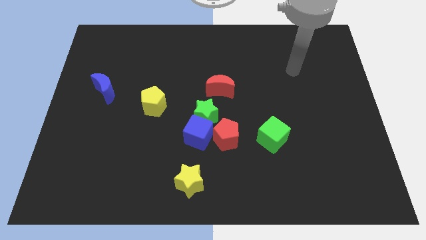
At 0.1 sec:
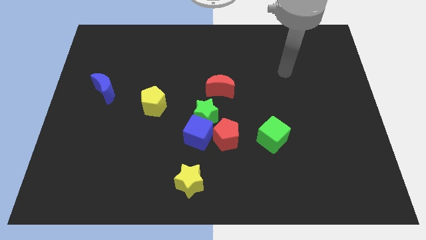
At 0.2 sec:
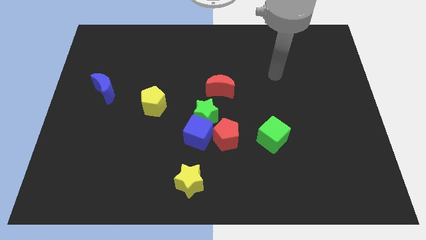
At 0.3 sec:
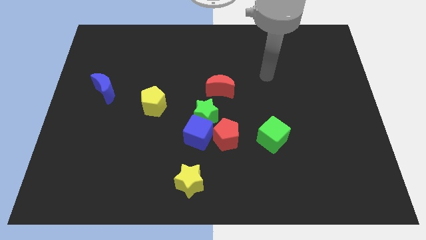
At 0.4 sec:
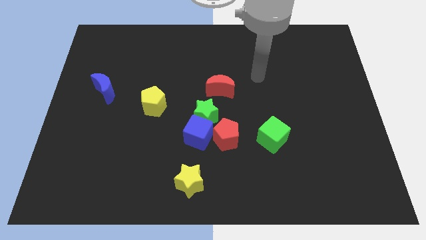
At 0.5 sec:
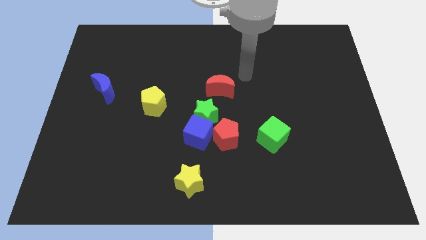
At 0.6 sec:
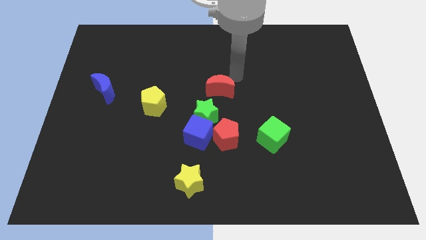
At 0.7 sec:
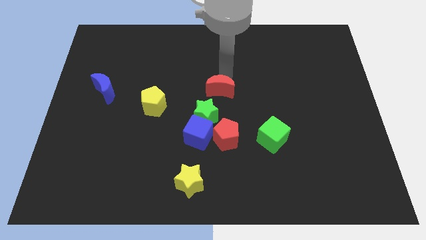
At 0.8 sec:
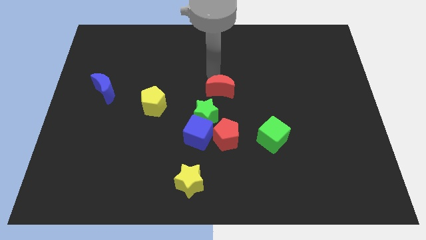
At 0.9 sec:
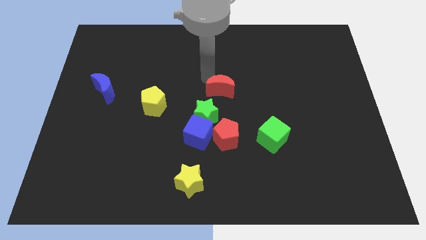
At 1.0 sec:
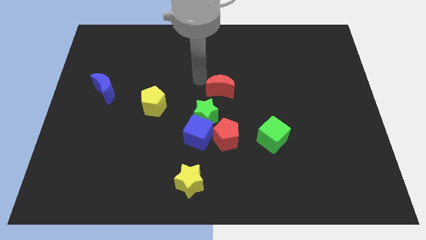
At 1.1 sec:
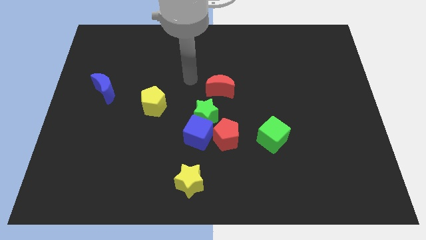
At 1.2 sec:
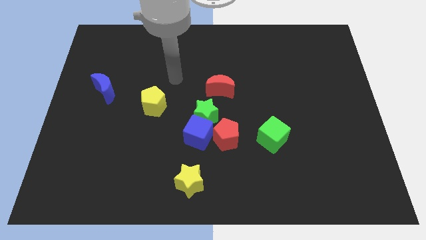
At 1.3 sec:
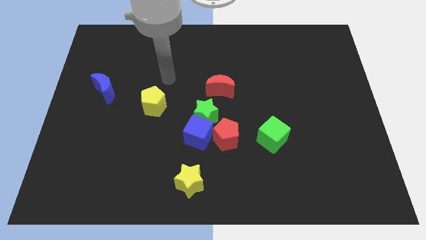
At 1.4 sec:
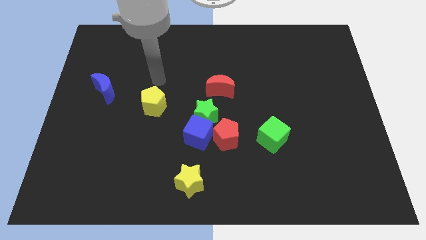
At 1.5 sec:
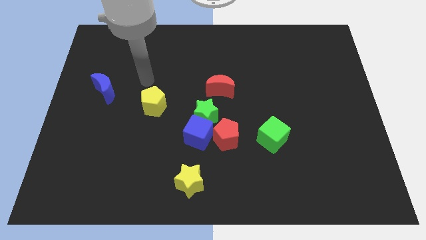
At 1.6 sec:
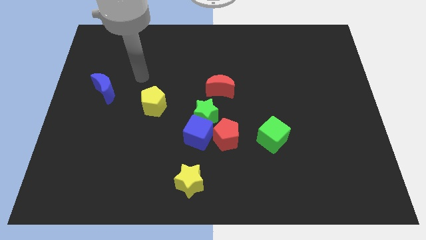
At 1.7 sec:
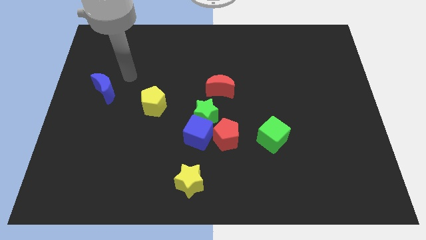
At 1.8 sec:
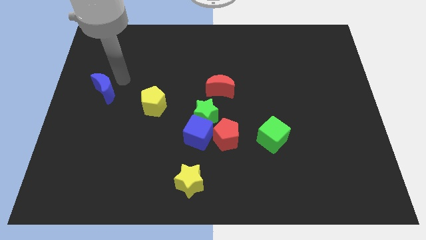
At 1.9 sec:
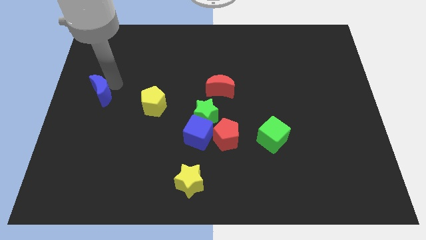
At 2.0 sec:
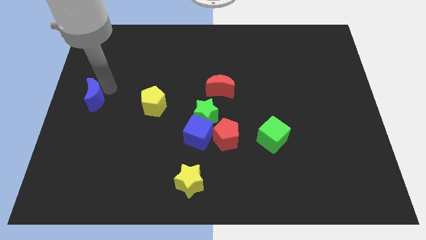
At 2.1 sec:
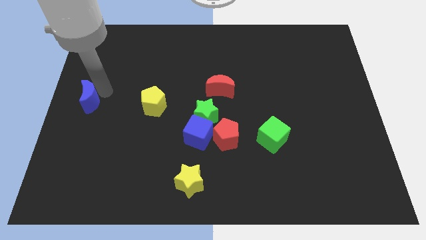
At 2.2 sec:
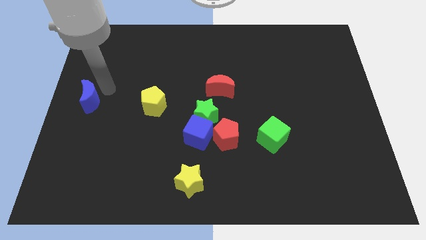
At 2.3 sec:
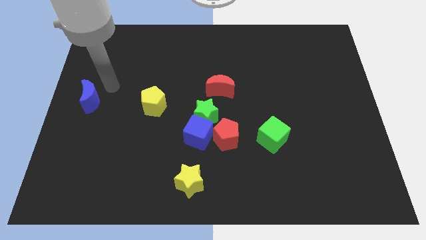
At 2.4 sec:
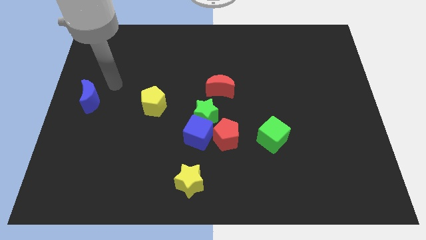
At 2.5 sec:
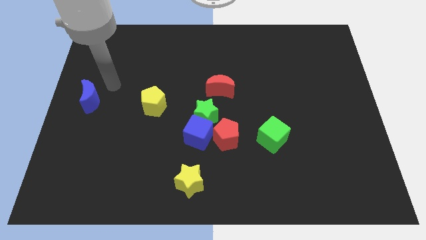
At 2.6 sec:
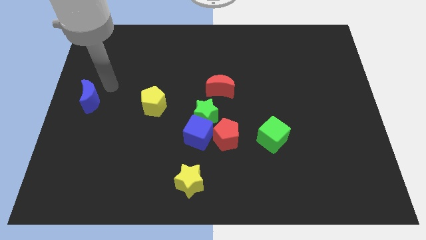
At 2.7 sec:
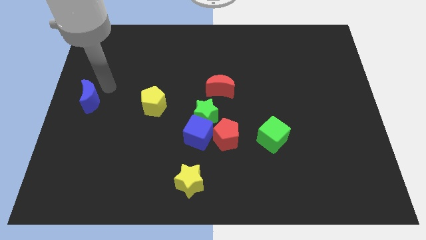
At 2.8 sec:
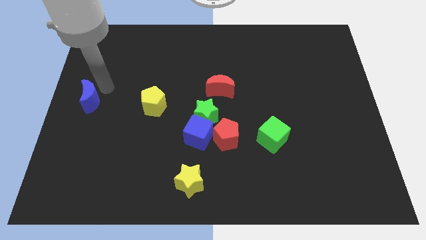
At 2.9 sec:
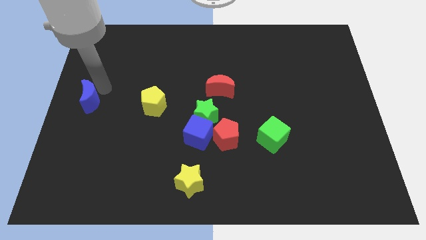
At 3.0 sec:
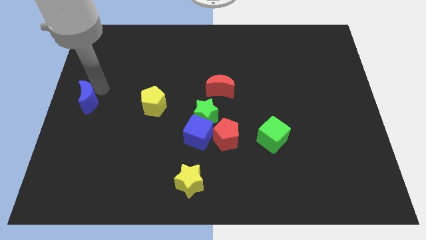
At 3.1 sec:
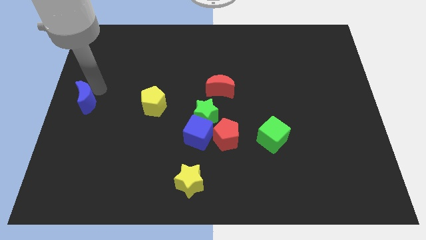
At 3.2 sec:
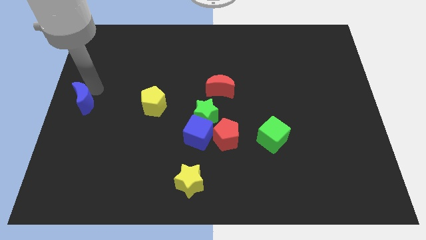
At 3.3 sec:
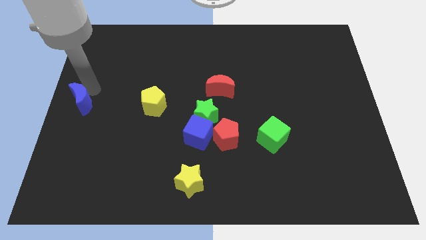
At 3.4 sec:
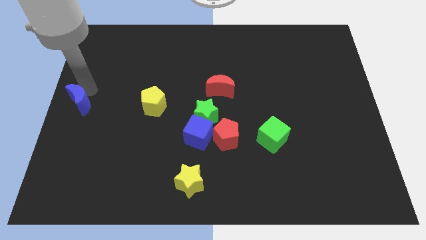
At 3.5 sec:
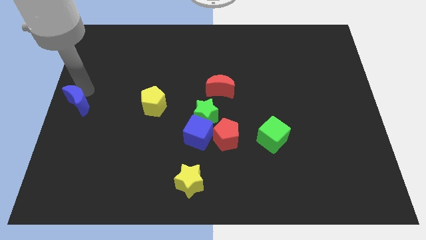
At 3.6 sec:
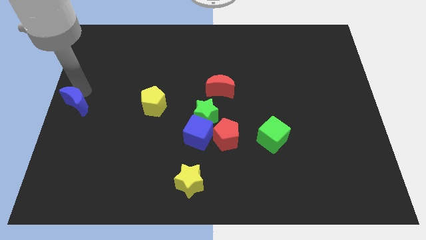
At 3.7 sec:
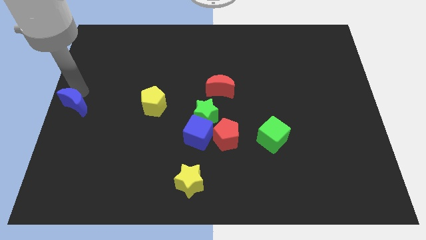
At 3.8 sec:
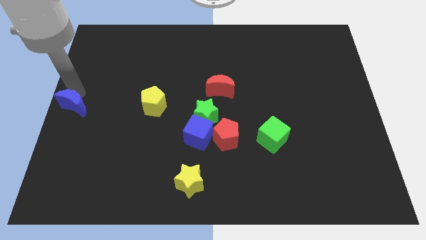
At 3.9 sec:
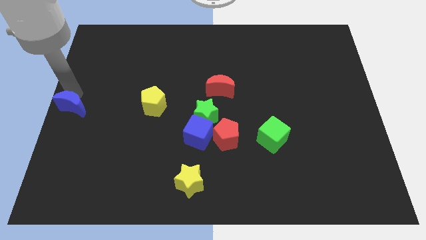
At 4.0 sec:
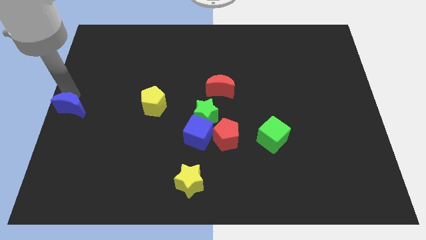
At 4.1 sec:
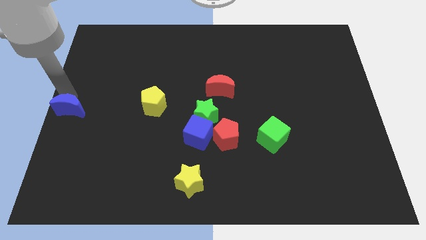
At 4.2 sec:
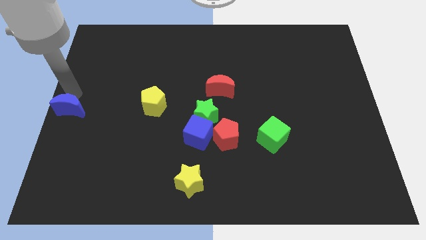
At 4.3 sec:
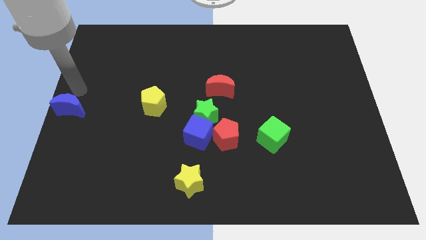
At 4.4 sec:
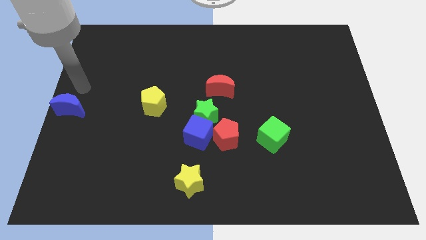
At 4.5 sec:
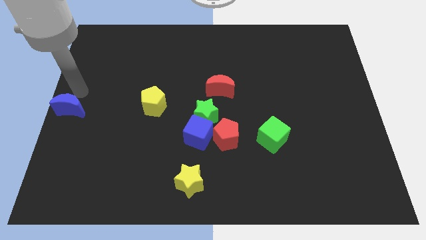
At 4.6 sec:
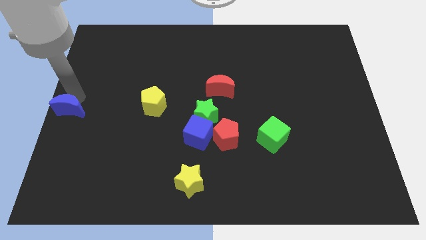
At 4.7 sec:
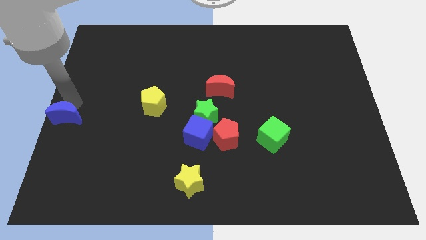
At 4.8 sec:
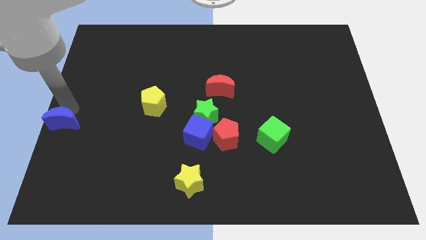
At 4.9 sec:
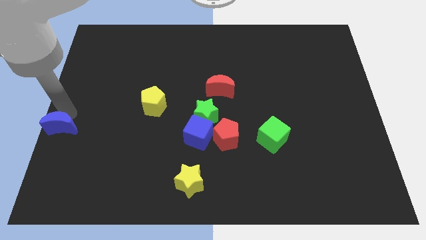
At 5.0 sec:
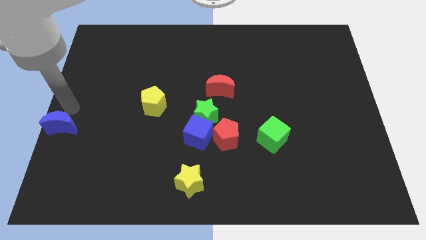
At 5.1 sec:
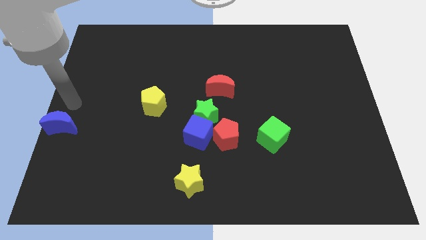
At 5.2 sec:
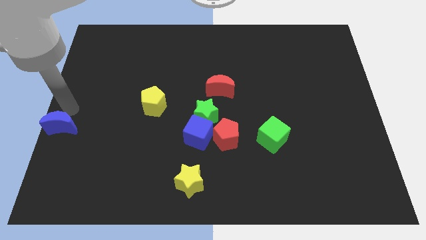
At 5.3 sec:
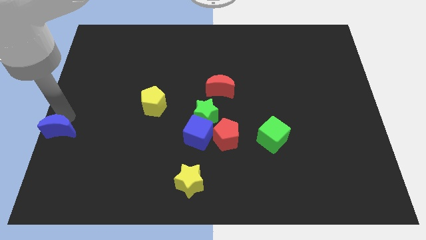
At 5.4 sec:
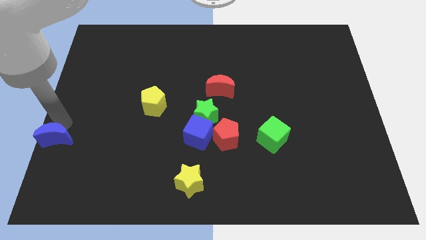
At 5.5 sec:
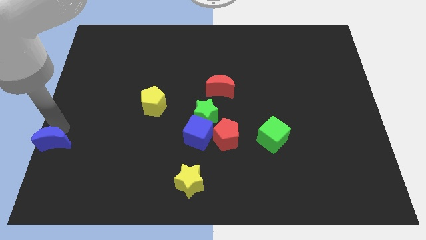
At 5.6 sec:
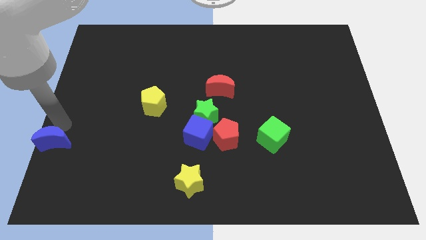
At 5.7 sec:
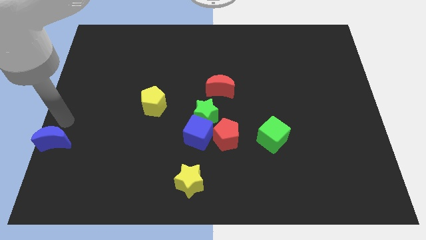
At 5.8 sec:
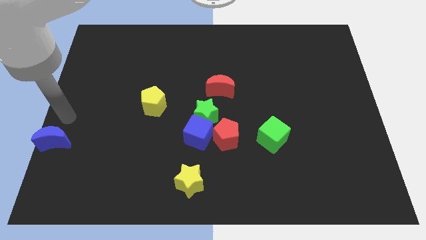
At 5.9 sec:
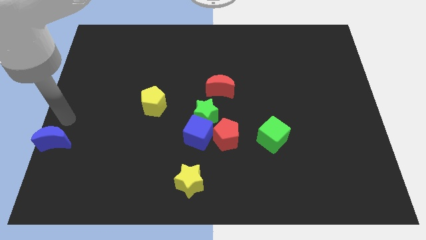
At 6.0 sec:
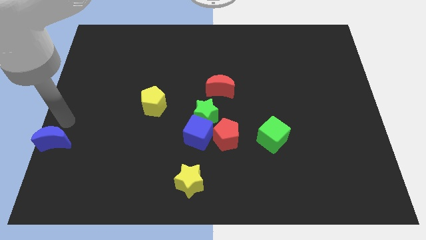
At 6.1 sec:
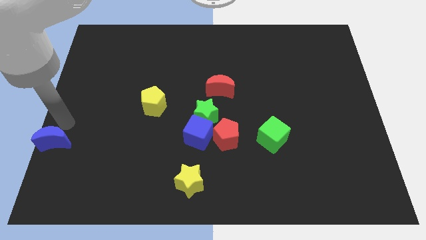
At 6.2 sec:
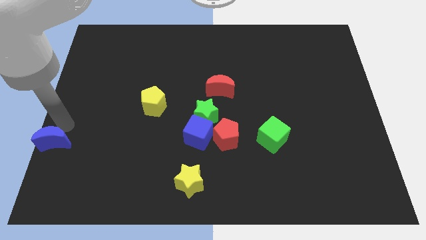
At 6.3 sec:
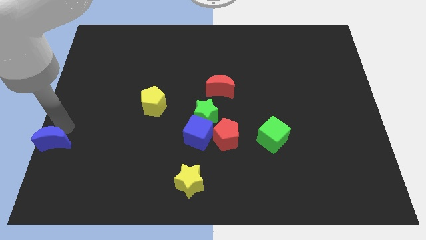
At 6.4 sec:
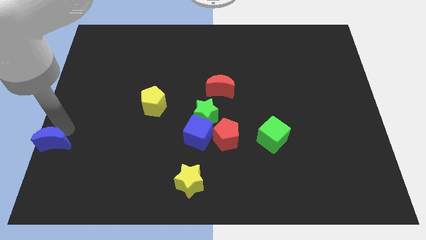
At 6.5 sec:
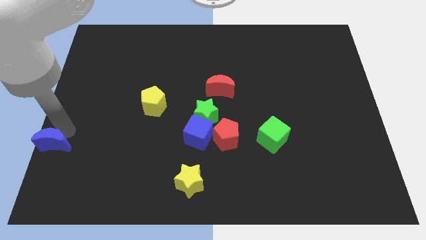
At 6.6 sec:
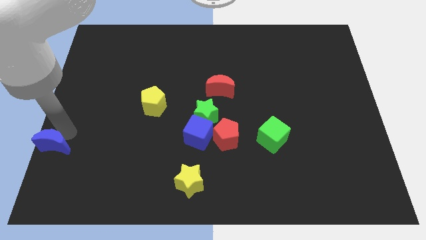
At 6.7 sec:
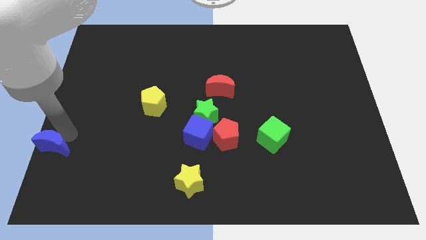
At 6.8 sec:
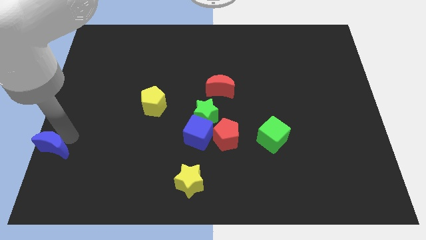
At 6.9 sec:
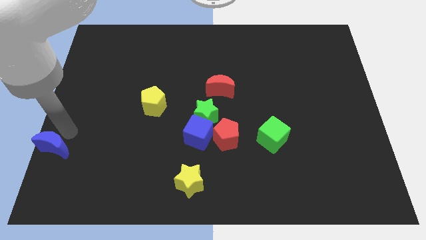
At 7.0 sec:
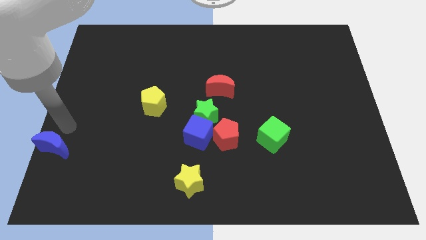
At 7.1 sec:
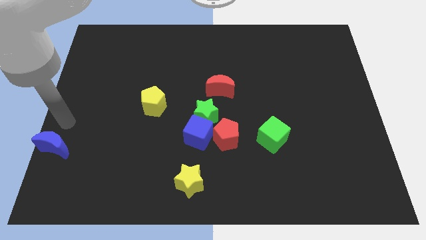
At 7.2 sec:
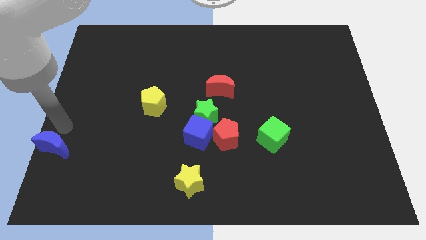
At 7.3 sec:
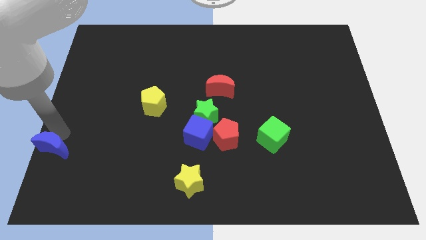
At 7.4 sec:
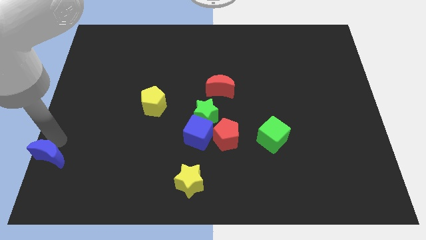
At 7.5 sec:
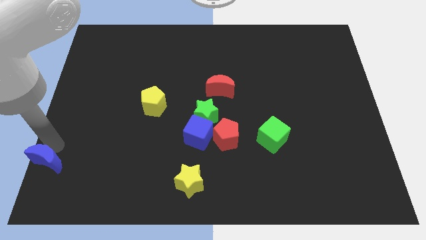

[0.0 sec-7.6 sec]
push the blue moon to the bottom left of the board
